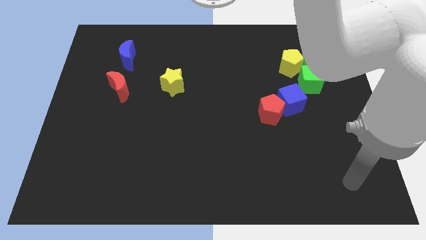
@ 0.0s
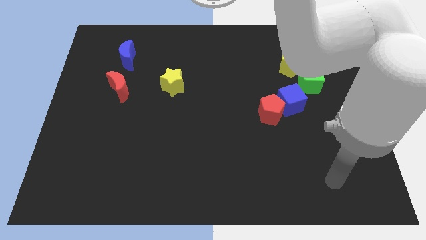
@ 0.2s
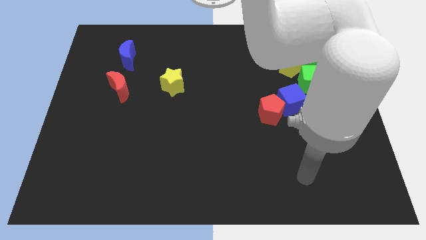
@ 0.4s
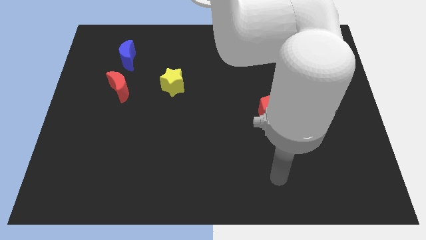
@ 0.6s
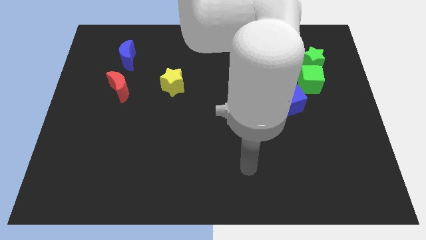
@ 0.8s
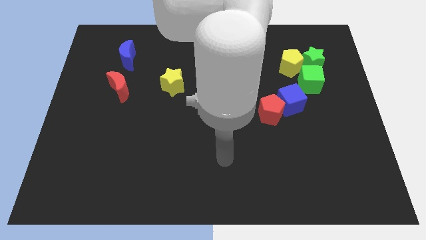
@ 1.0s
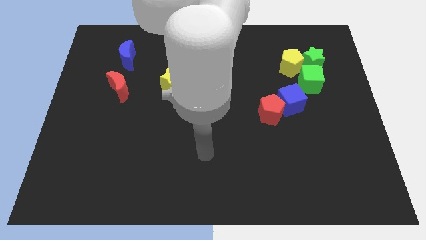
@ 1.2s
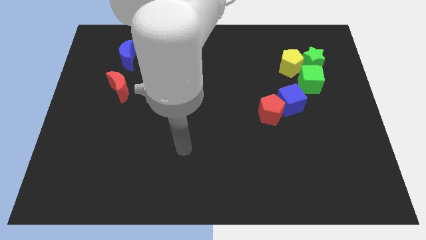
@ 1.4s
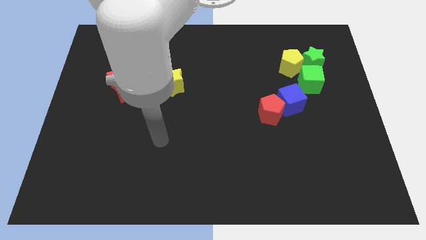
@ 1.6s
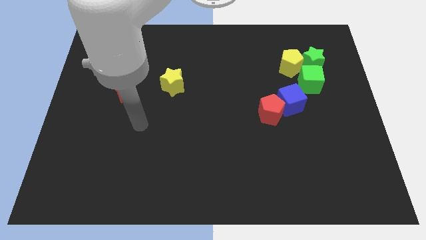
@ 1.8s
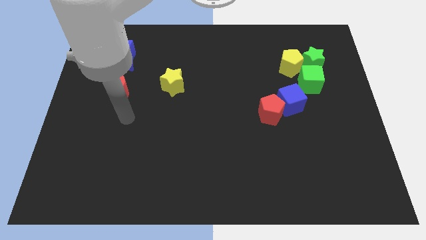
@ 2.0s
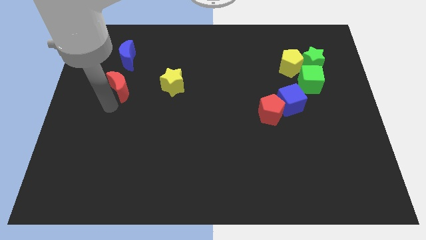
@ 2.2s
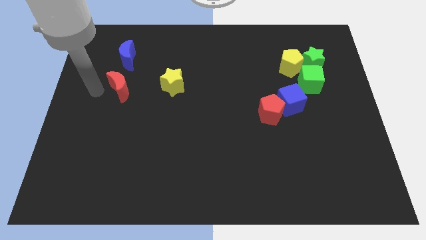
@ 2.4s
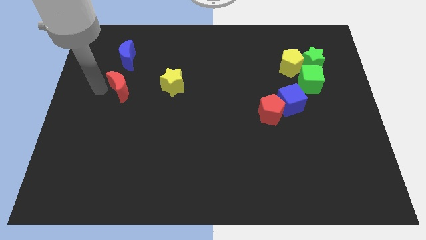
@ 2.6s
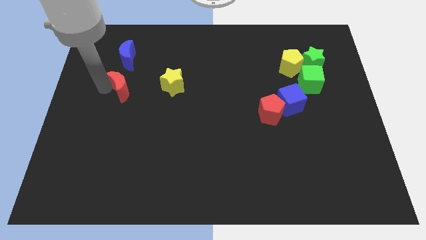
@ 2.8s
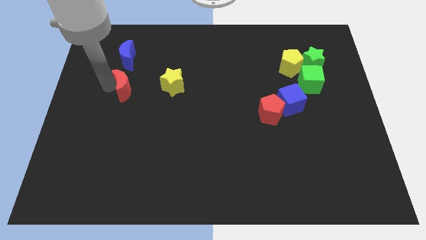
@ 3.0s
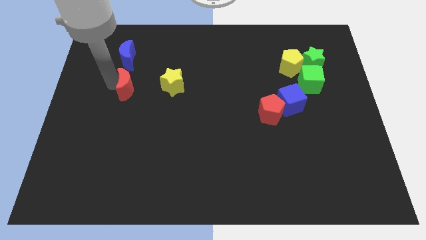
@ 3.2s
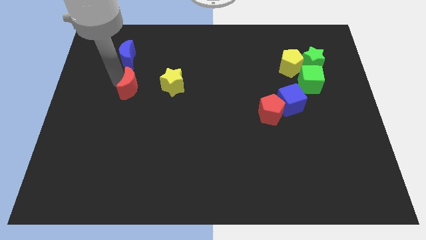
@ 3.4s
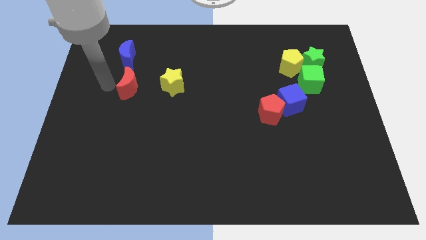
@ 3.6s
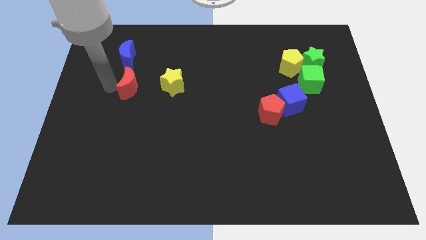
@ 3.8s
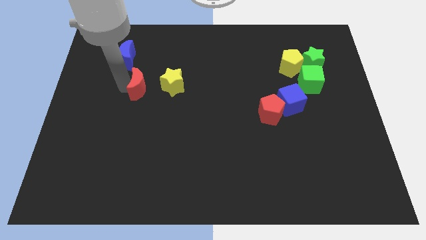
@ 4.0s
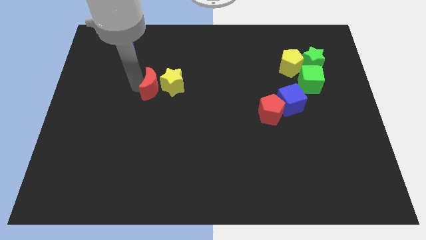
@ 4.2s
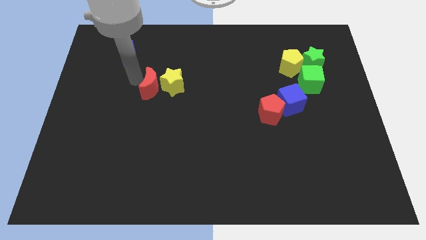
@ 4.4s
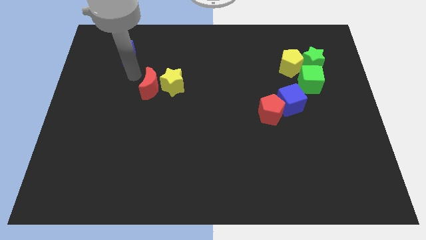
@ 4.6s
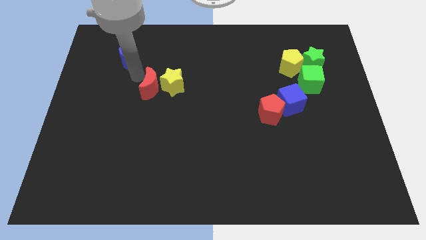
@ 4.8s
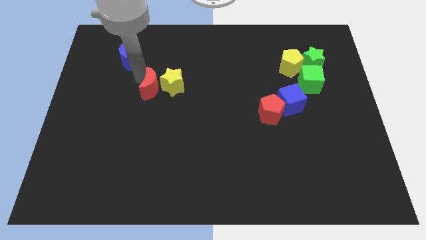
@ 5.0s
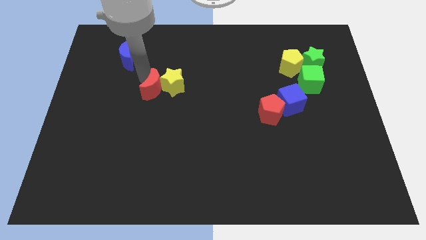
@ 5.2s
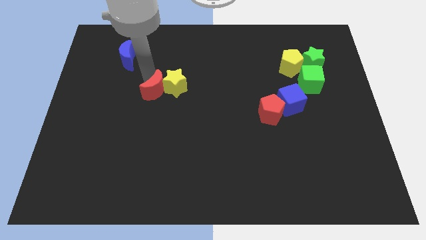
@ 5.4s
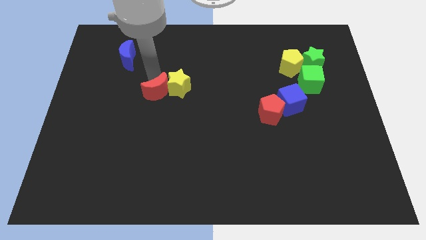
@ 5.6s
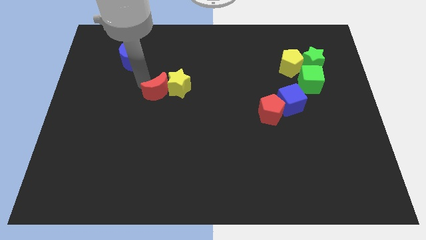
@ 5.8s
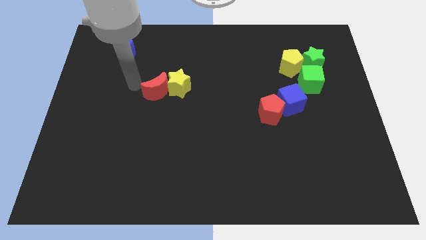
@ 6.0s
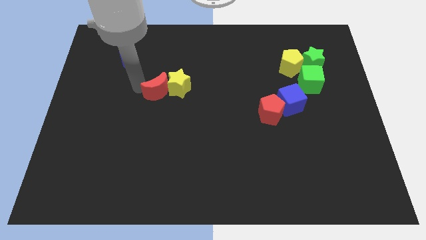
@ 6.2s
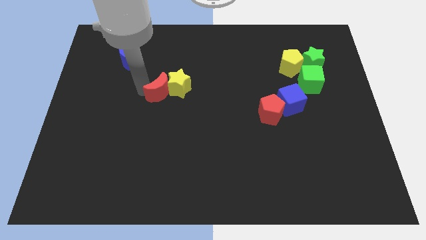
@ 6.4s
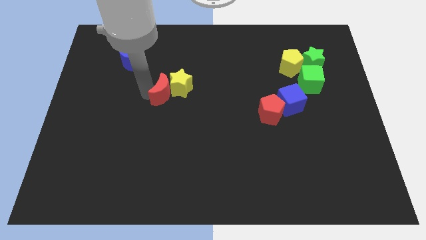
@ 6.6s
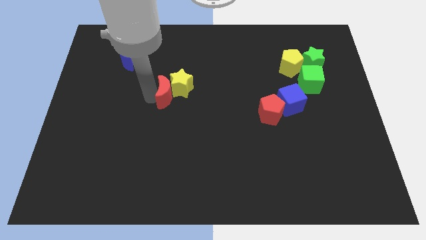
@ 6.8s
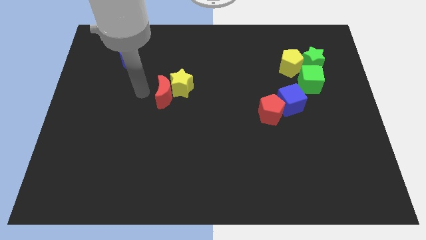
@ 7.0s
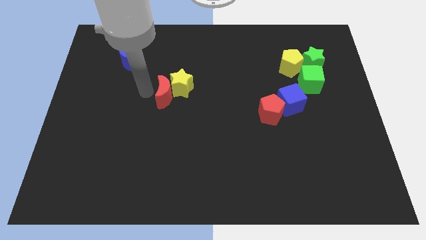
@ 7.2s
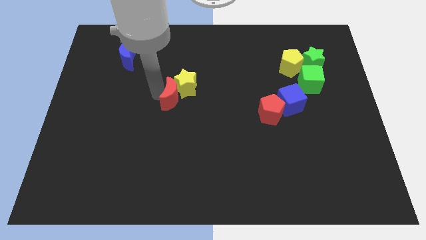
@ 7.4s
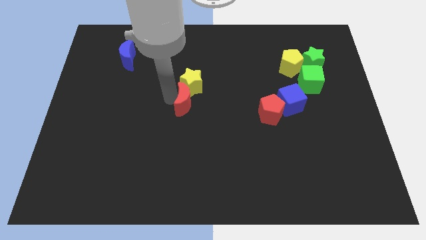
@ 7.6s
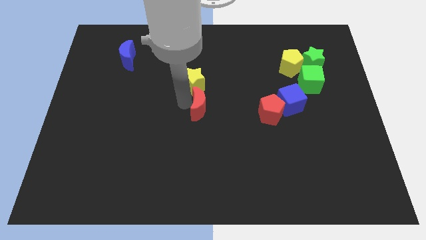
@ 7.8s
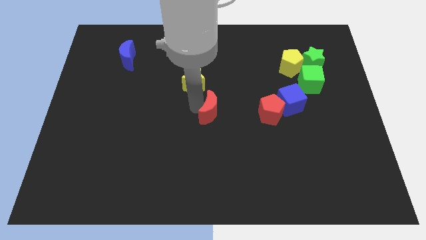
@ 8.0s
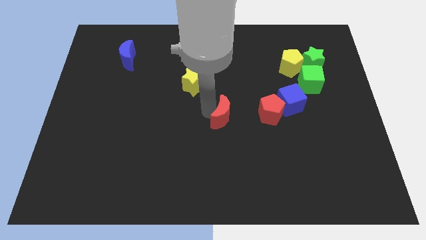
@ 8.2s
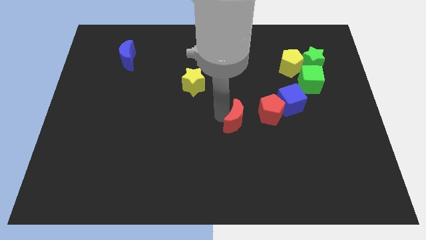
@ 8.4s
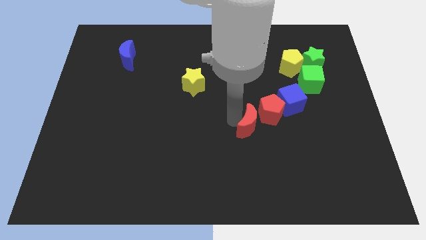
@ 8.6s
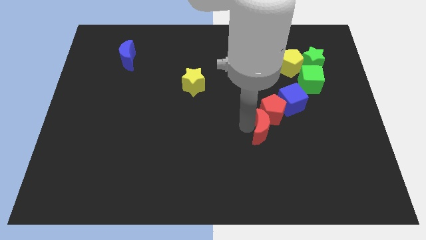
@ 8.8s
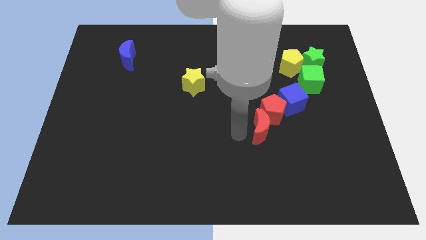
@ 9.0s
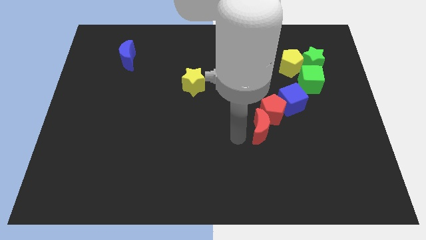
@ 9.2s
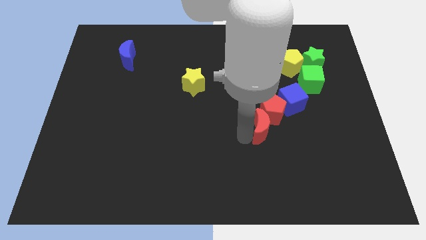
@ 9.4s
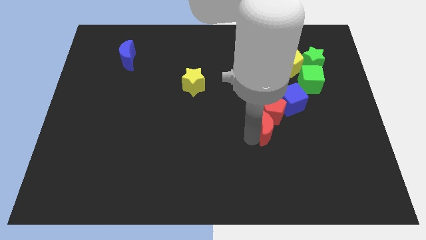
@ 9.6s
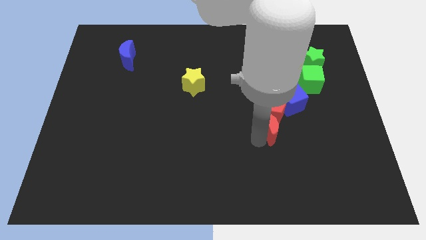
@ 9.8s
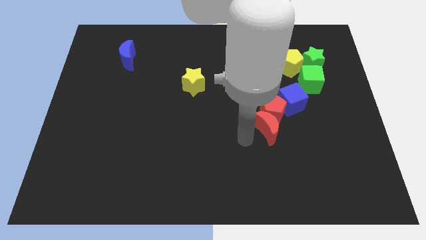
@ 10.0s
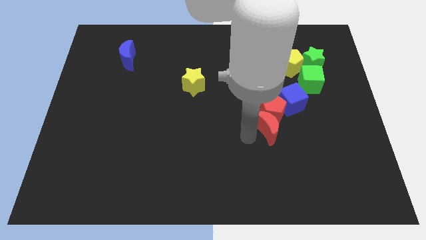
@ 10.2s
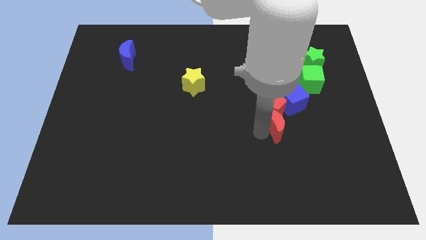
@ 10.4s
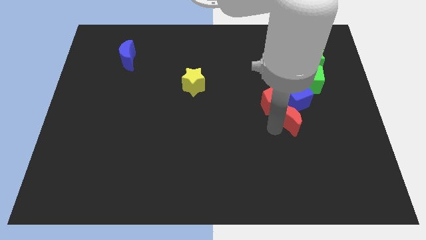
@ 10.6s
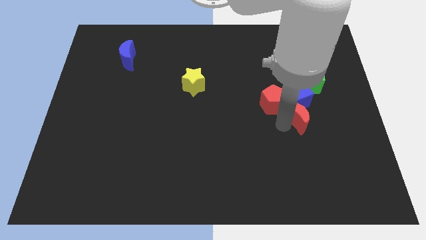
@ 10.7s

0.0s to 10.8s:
put the red moon to the right of the red pentagon
